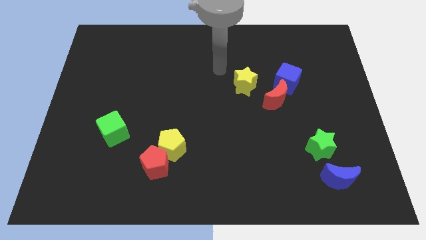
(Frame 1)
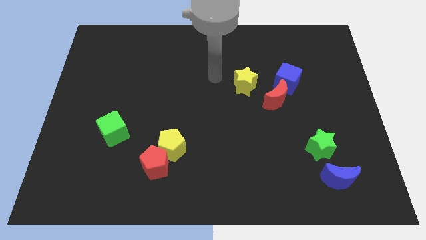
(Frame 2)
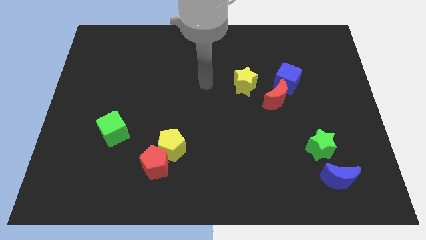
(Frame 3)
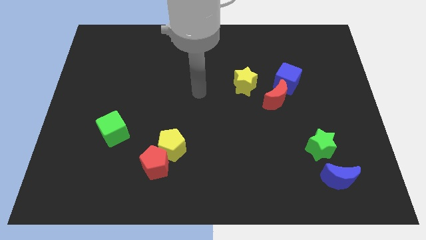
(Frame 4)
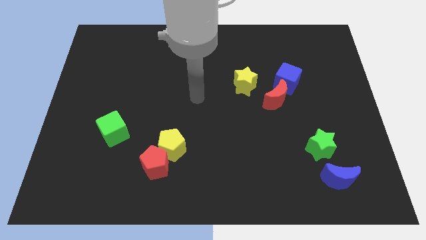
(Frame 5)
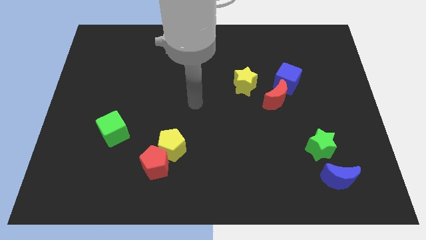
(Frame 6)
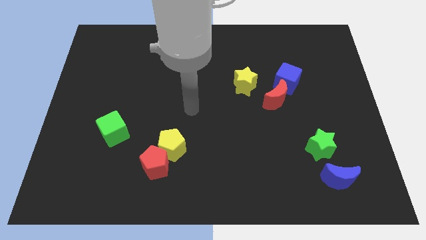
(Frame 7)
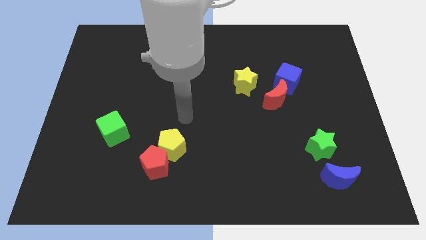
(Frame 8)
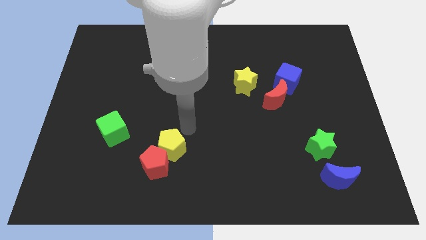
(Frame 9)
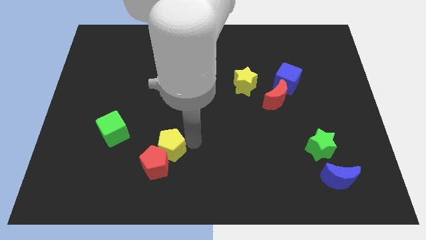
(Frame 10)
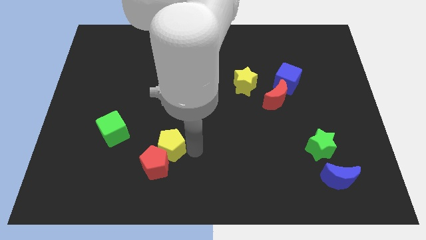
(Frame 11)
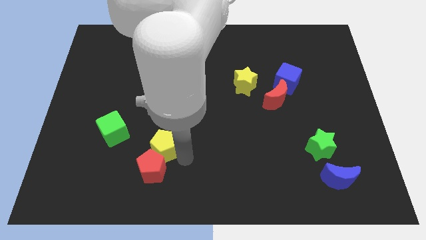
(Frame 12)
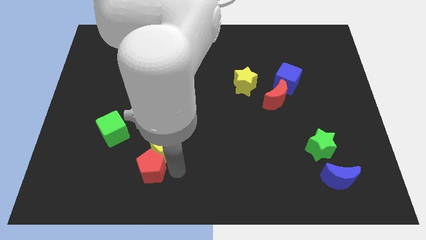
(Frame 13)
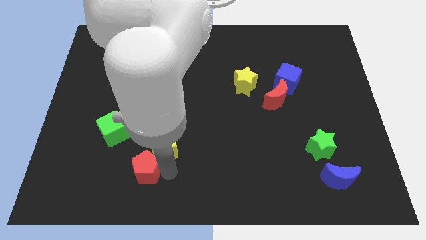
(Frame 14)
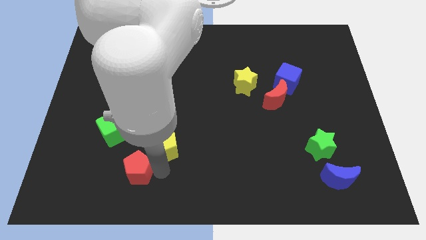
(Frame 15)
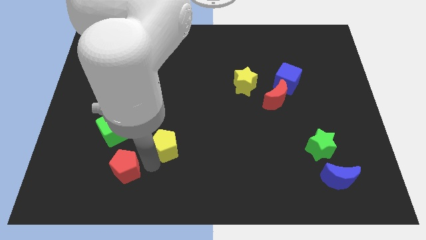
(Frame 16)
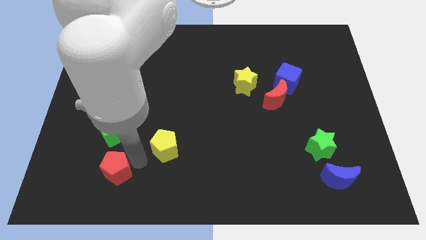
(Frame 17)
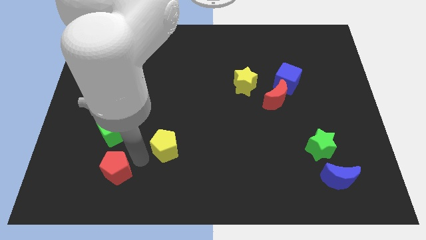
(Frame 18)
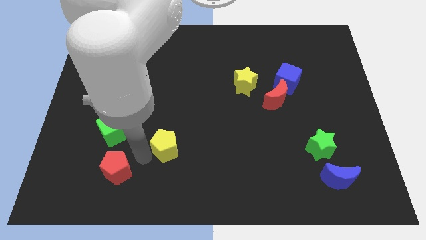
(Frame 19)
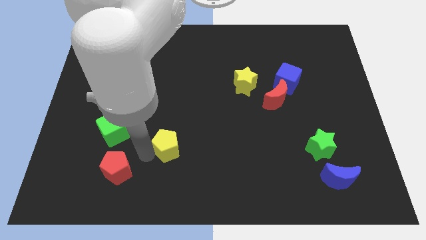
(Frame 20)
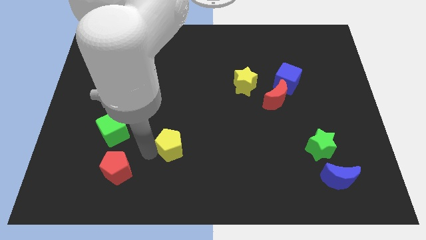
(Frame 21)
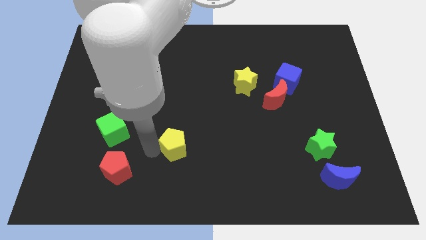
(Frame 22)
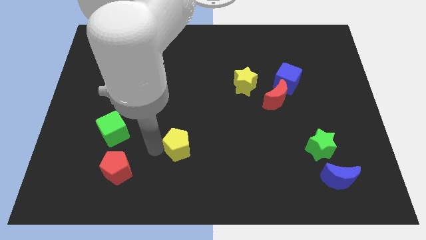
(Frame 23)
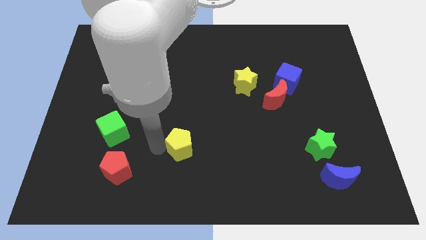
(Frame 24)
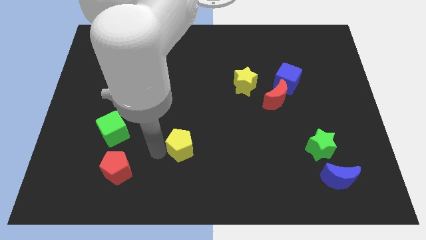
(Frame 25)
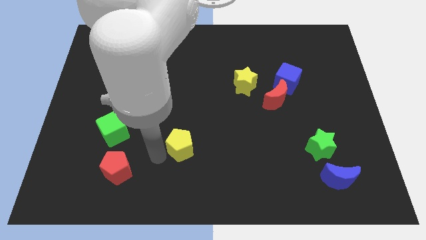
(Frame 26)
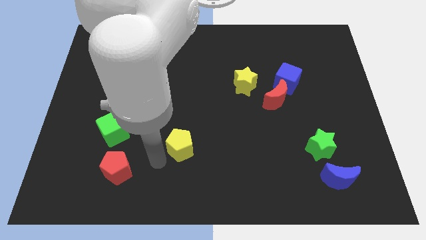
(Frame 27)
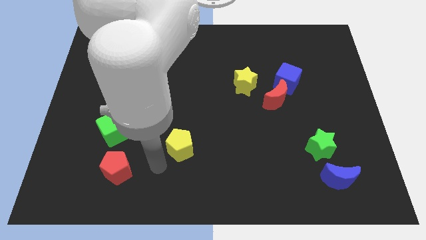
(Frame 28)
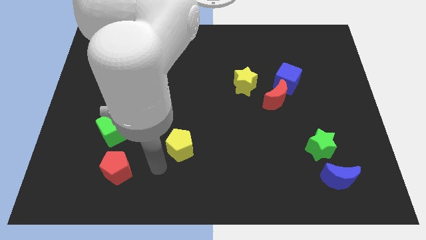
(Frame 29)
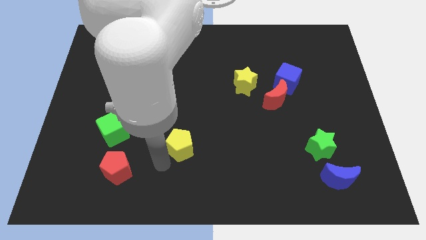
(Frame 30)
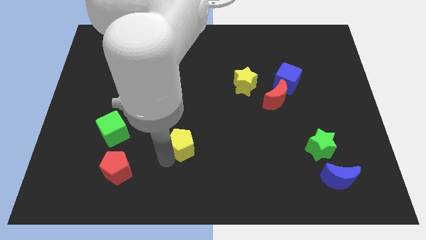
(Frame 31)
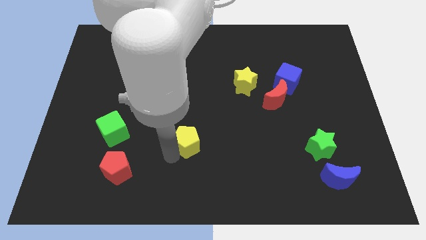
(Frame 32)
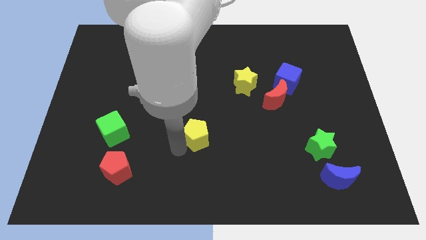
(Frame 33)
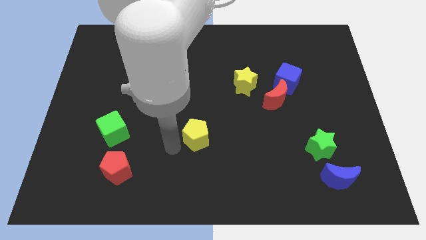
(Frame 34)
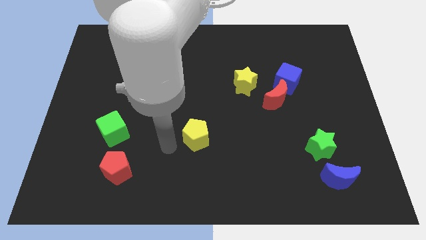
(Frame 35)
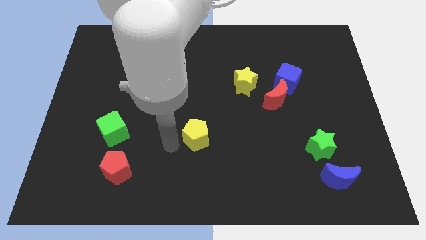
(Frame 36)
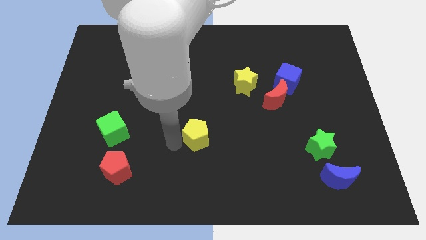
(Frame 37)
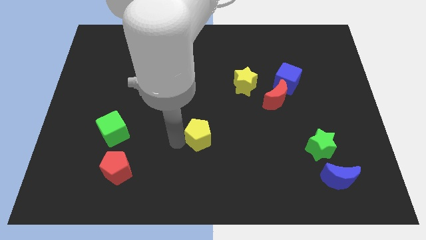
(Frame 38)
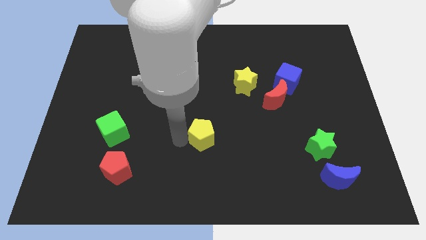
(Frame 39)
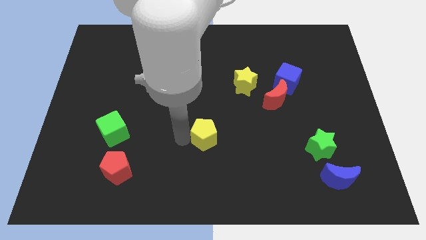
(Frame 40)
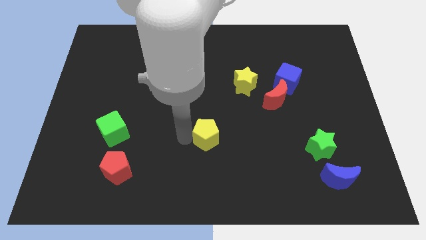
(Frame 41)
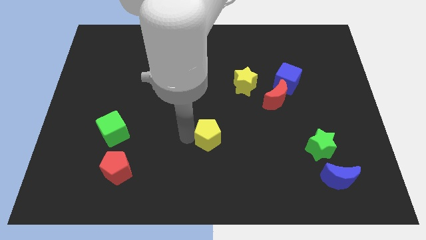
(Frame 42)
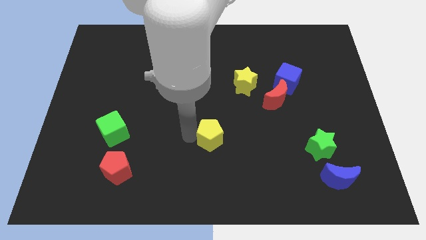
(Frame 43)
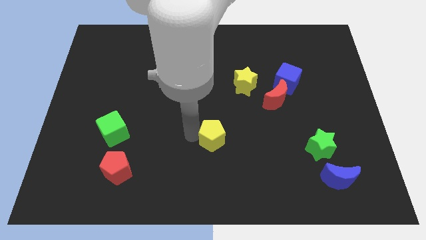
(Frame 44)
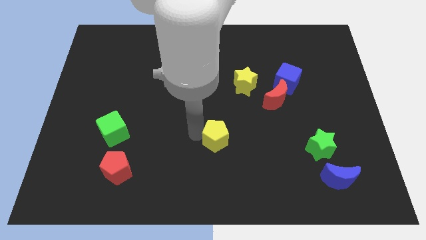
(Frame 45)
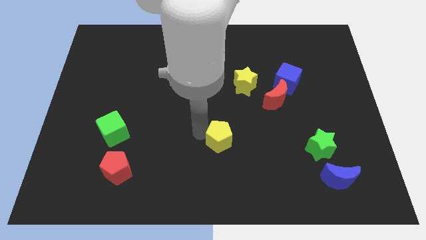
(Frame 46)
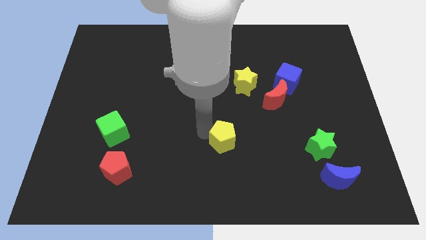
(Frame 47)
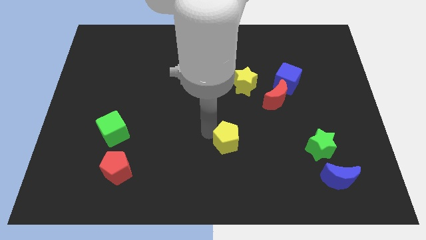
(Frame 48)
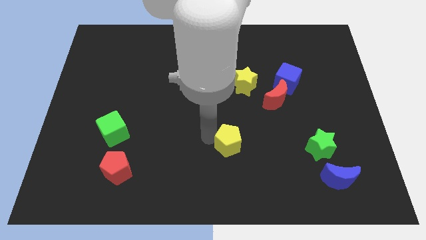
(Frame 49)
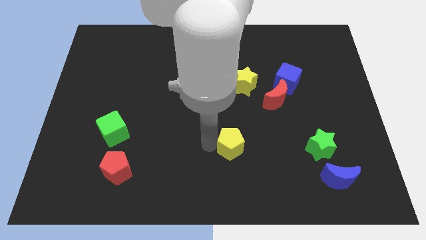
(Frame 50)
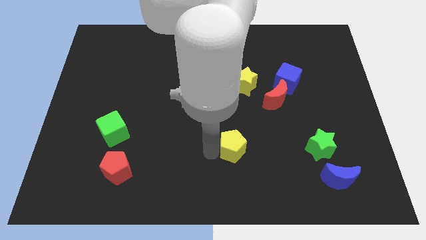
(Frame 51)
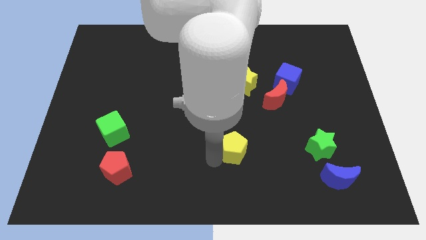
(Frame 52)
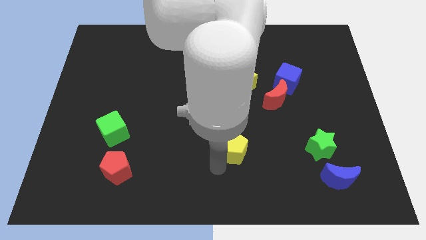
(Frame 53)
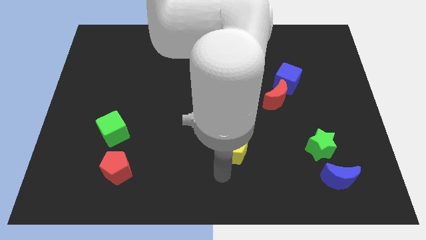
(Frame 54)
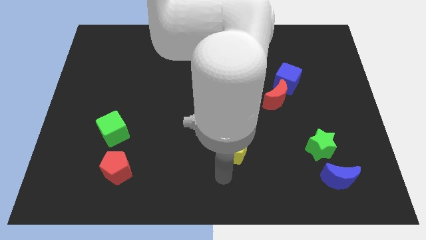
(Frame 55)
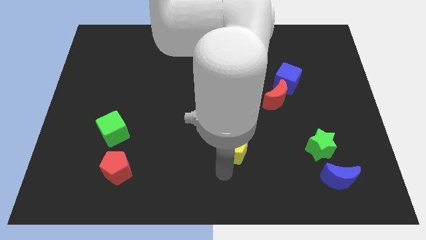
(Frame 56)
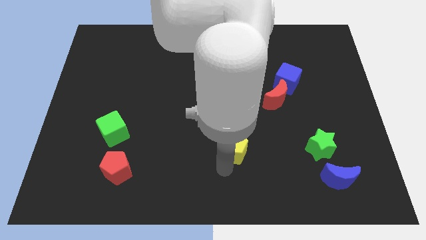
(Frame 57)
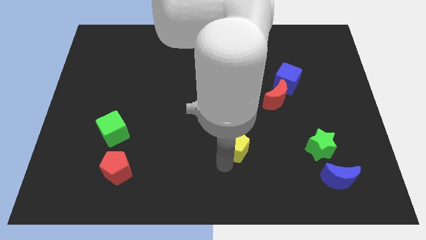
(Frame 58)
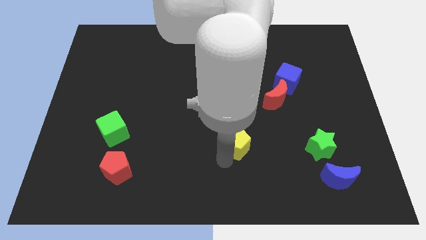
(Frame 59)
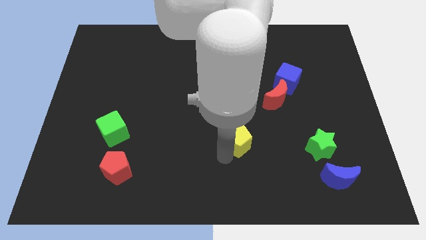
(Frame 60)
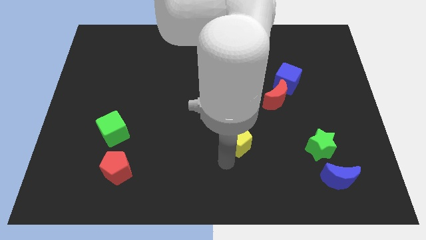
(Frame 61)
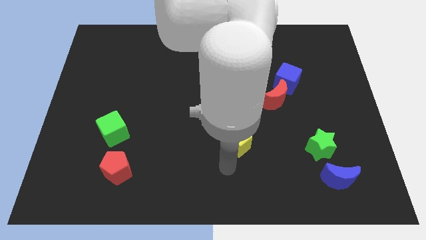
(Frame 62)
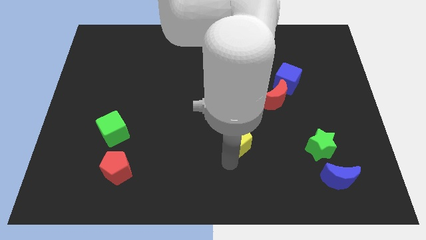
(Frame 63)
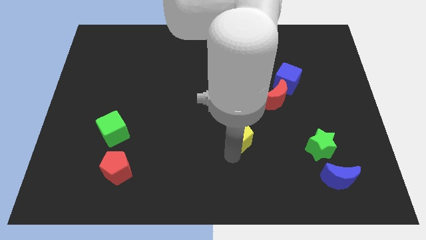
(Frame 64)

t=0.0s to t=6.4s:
put the yellow pentagon to the bottom of the yellow star
